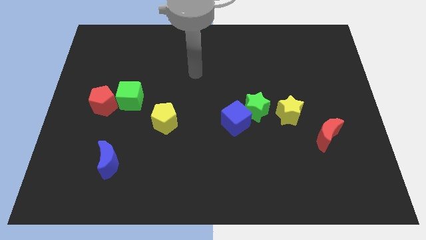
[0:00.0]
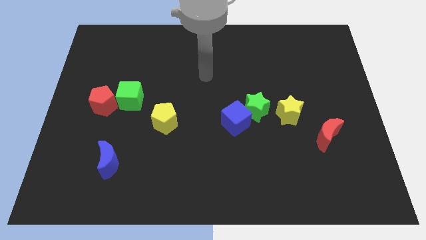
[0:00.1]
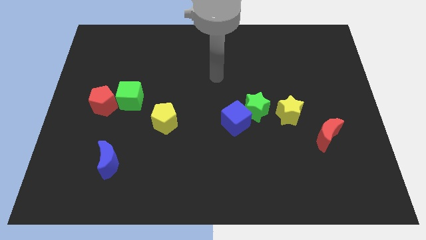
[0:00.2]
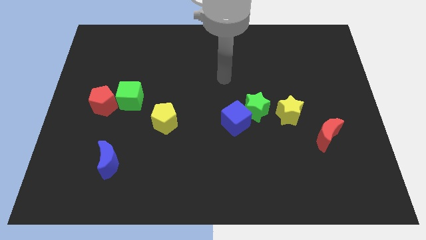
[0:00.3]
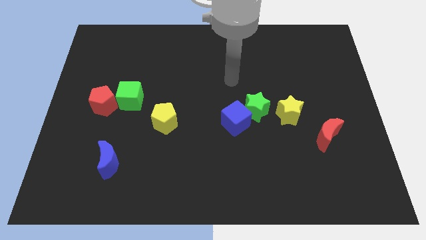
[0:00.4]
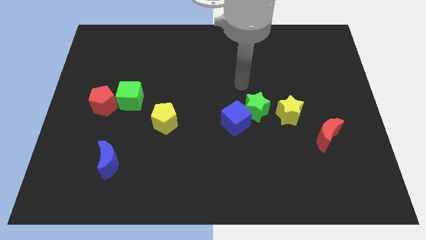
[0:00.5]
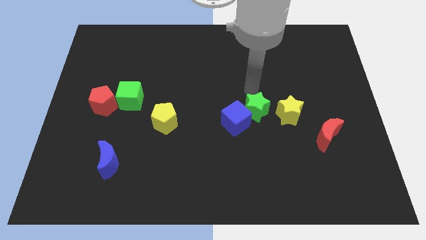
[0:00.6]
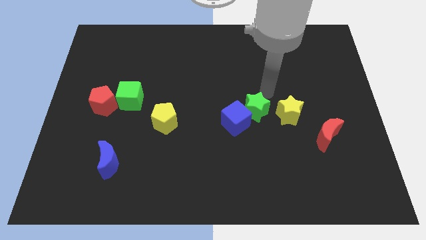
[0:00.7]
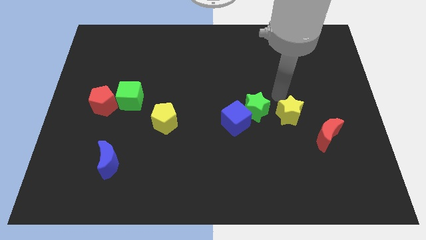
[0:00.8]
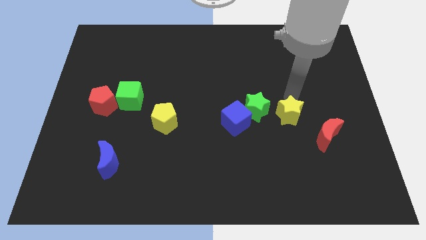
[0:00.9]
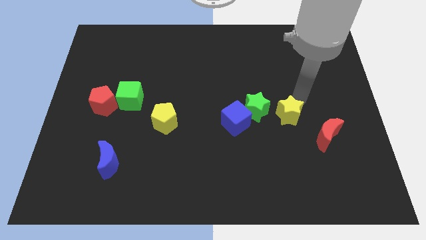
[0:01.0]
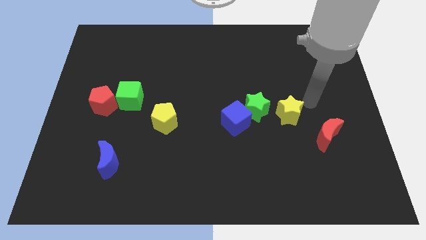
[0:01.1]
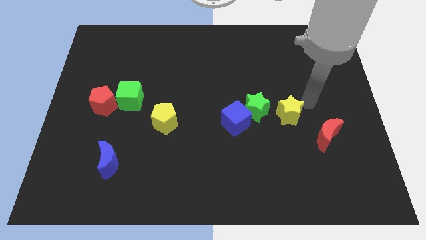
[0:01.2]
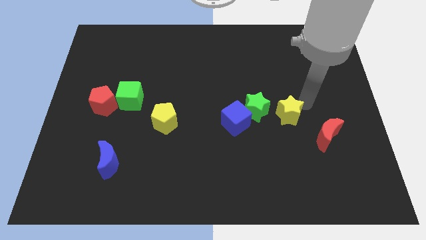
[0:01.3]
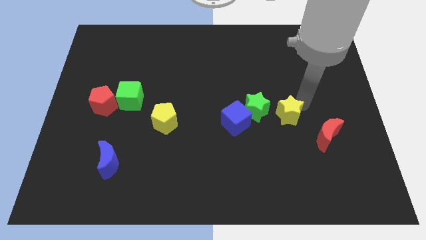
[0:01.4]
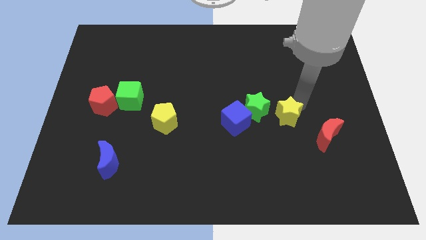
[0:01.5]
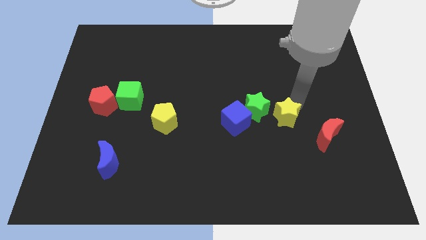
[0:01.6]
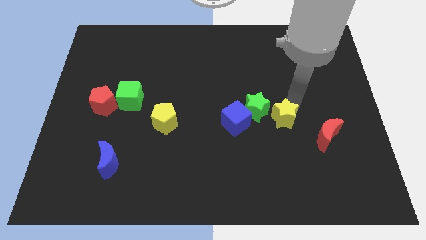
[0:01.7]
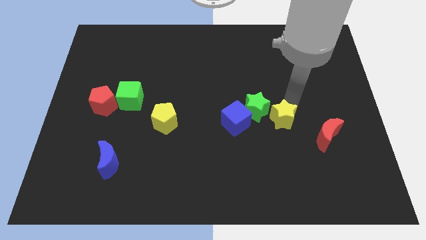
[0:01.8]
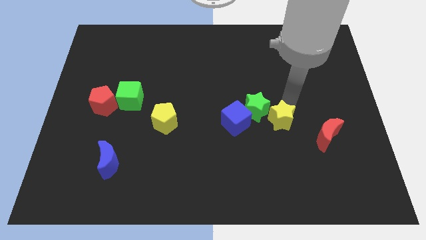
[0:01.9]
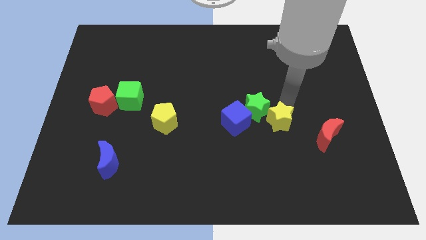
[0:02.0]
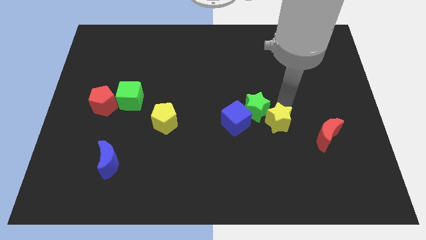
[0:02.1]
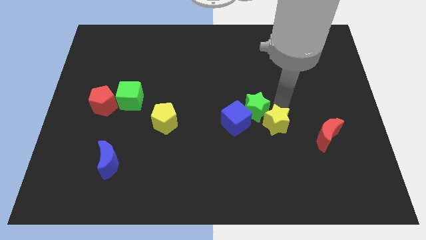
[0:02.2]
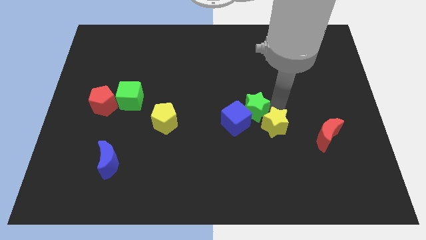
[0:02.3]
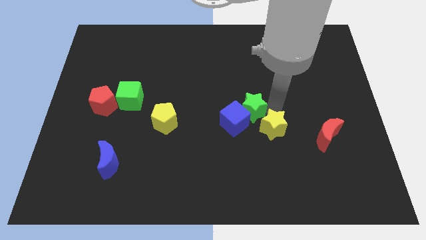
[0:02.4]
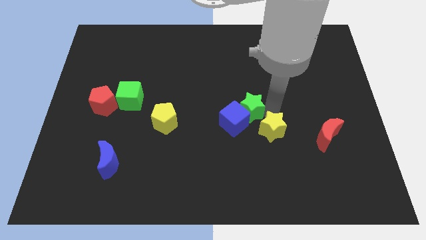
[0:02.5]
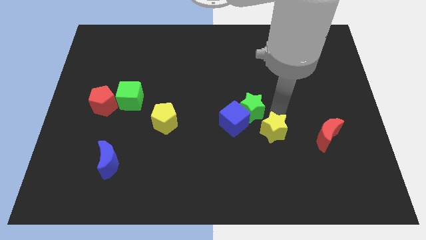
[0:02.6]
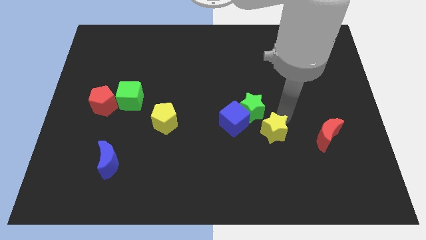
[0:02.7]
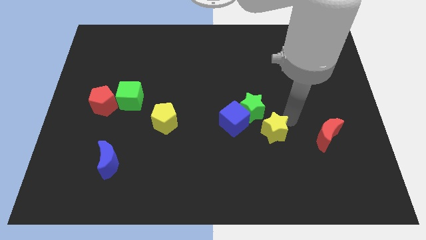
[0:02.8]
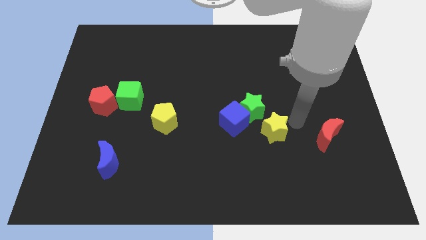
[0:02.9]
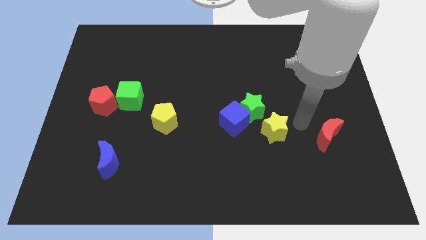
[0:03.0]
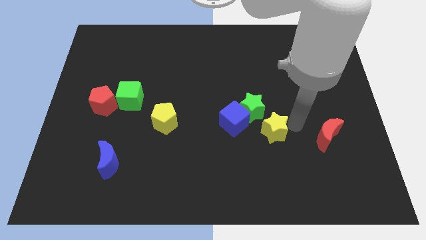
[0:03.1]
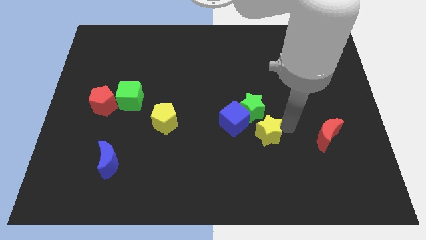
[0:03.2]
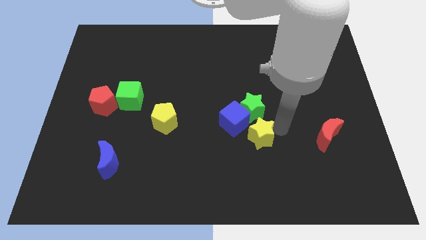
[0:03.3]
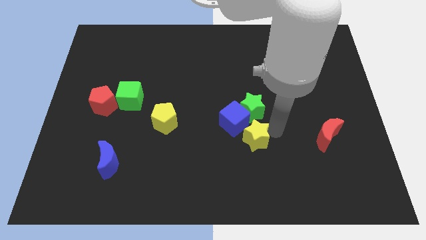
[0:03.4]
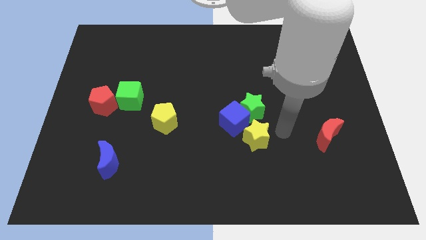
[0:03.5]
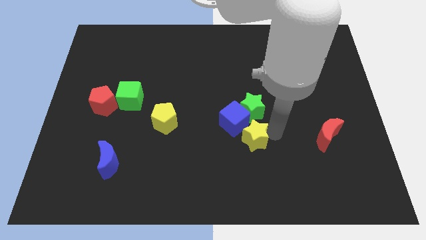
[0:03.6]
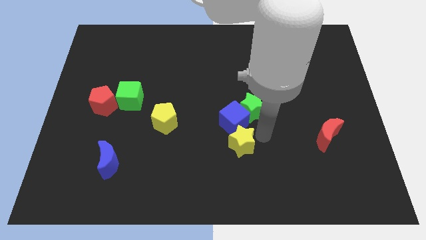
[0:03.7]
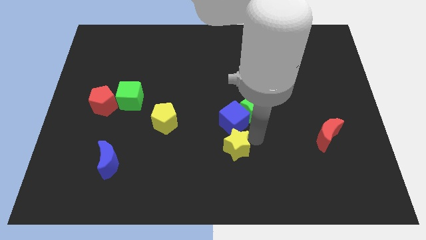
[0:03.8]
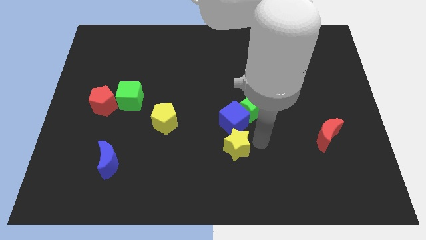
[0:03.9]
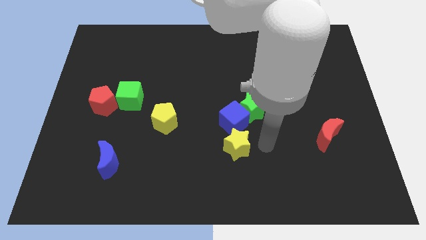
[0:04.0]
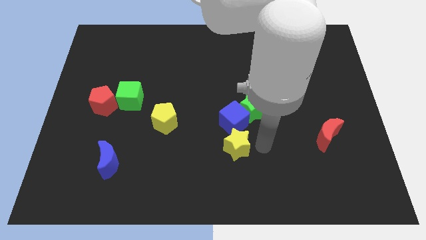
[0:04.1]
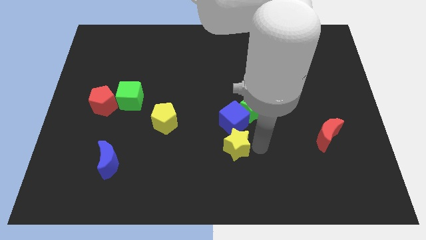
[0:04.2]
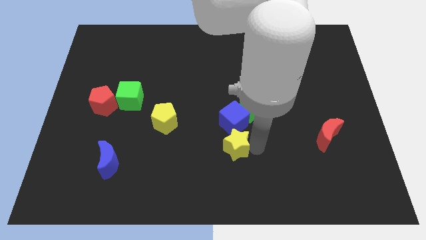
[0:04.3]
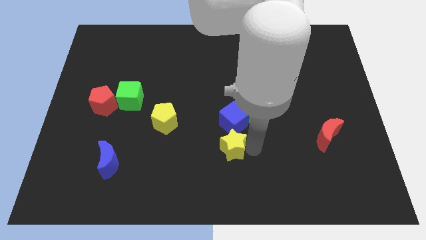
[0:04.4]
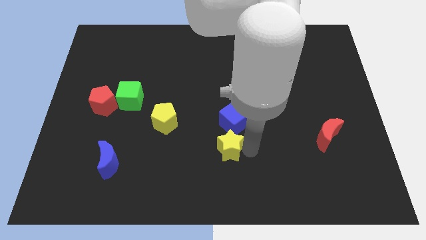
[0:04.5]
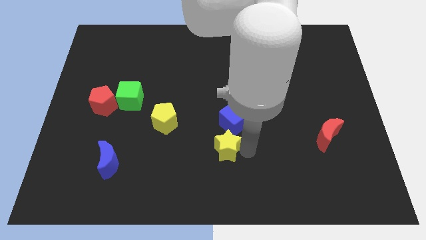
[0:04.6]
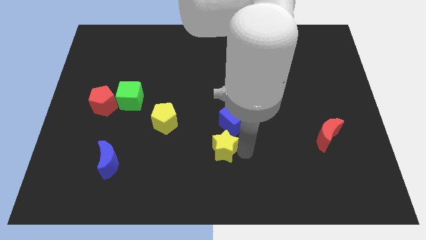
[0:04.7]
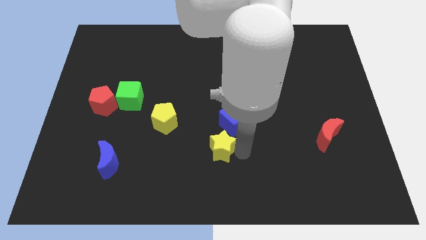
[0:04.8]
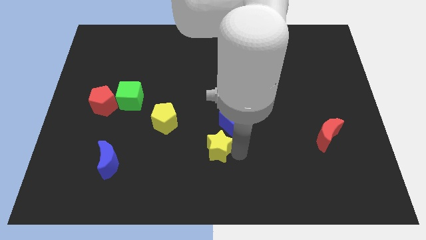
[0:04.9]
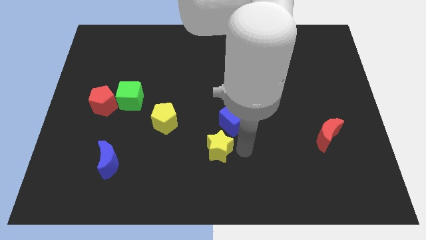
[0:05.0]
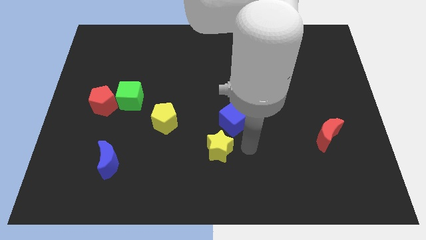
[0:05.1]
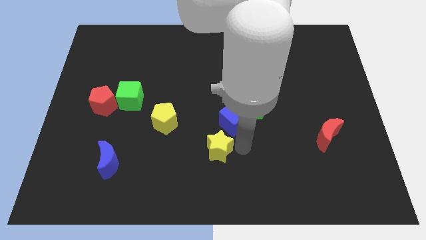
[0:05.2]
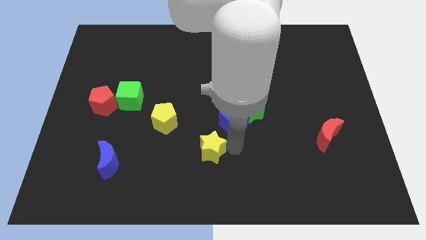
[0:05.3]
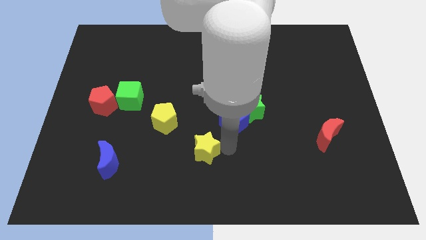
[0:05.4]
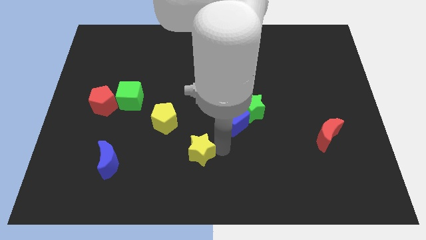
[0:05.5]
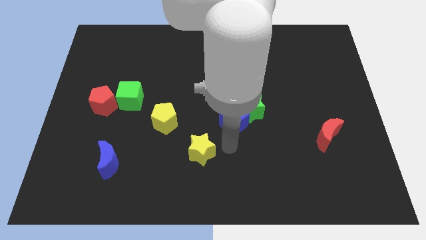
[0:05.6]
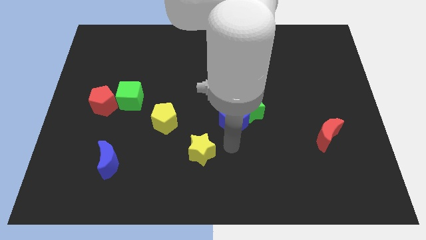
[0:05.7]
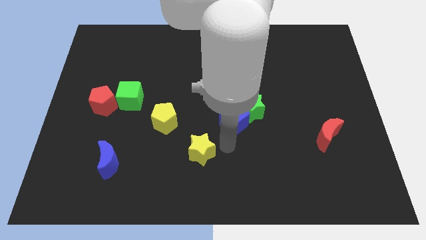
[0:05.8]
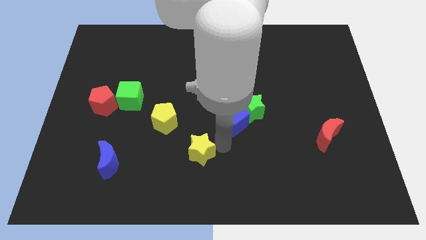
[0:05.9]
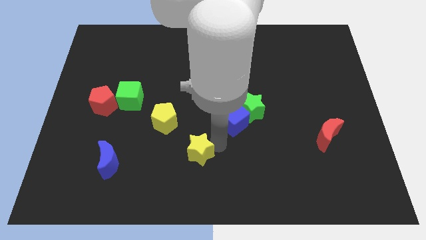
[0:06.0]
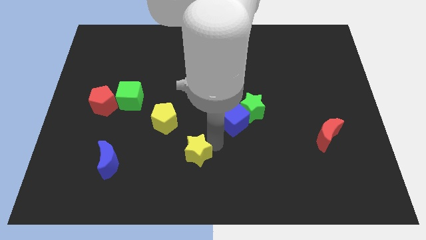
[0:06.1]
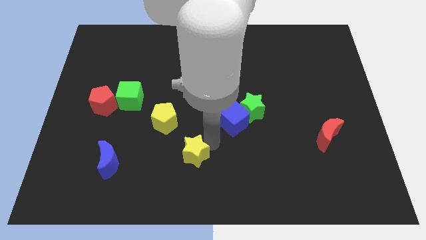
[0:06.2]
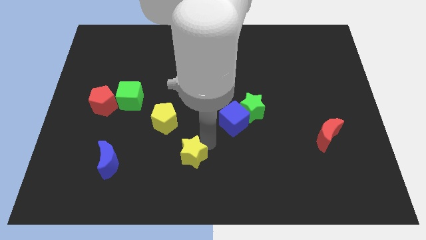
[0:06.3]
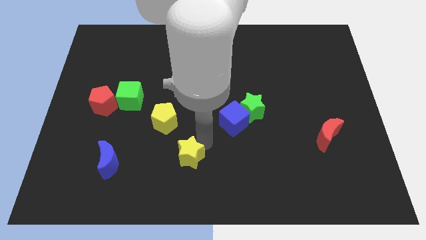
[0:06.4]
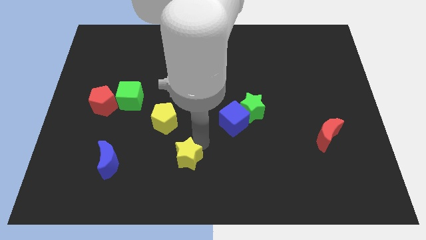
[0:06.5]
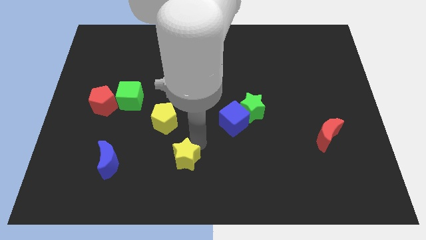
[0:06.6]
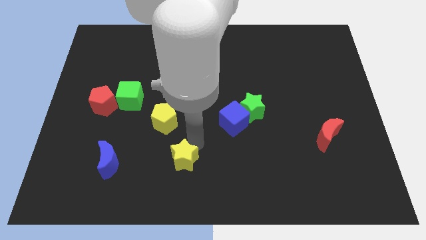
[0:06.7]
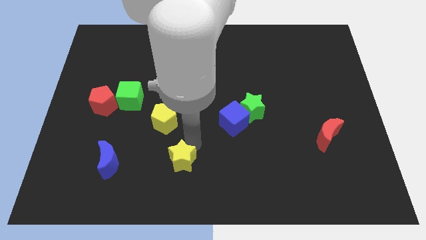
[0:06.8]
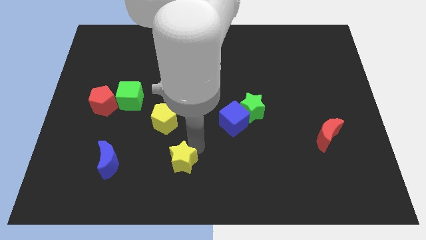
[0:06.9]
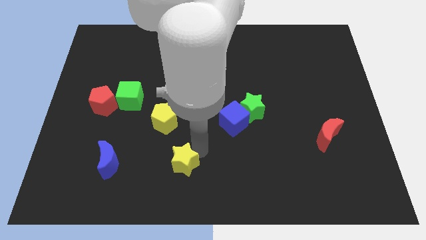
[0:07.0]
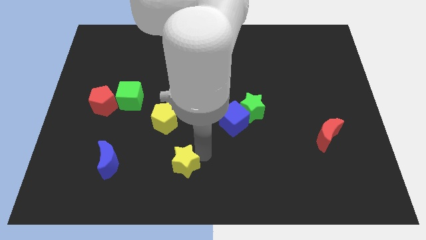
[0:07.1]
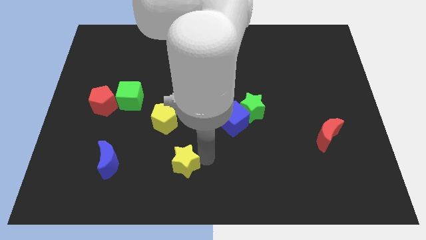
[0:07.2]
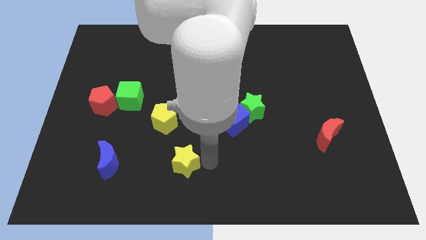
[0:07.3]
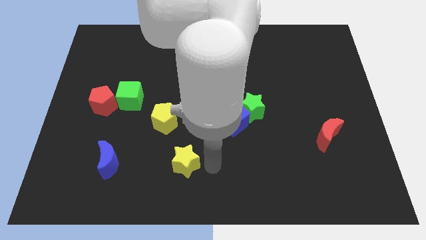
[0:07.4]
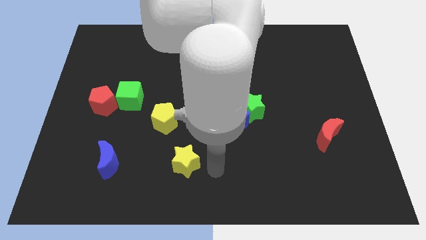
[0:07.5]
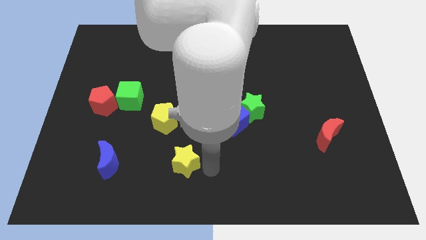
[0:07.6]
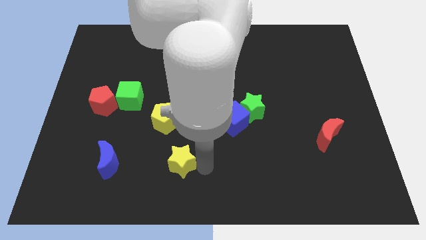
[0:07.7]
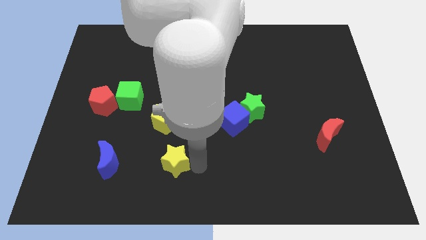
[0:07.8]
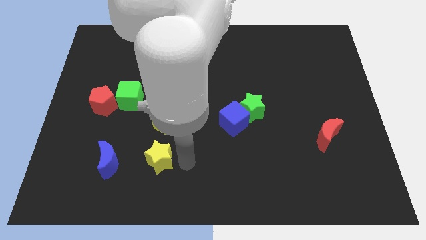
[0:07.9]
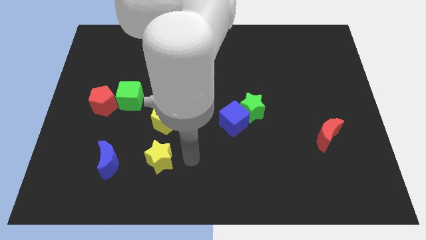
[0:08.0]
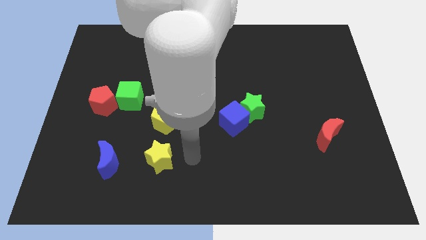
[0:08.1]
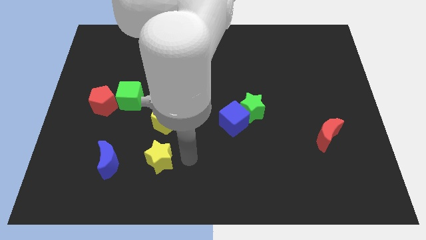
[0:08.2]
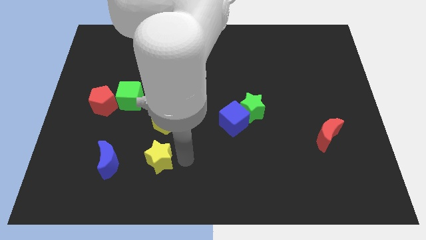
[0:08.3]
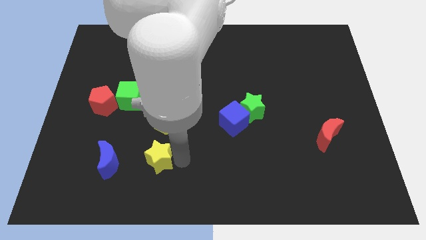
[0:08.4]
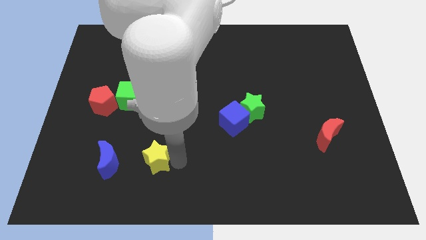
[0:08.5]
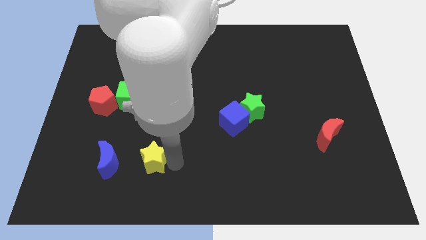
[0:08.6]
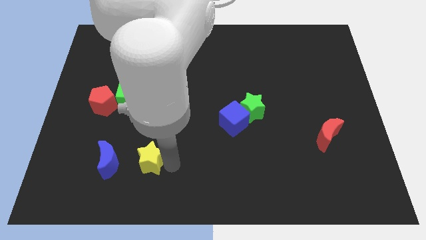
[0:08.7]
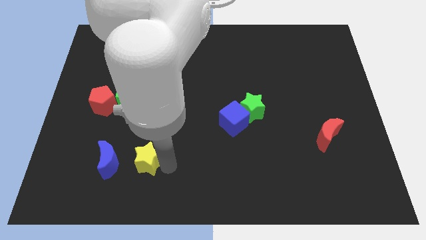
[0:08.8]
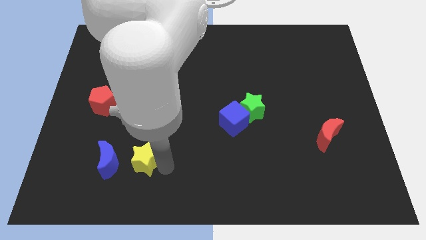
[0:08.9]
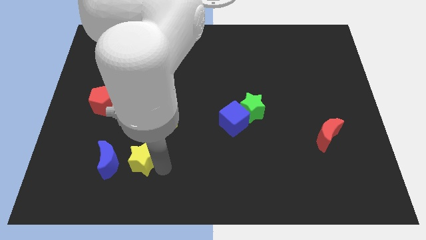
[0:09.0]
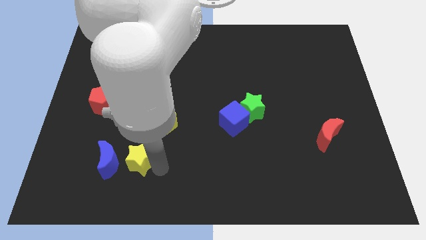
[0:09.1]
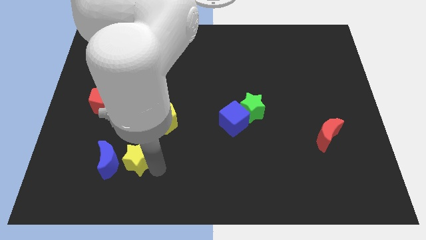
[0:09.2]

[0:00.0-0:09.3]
push the yellow star to the blue moon
